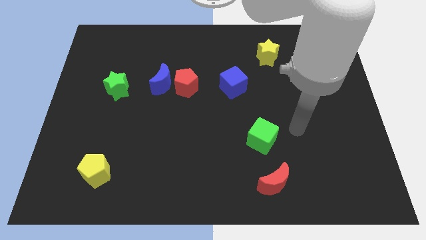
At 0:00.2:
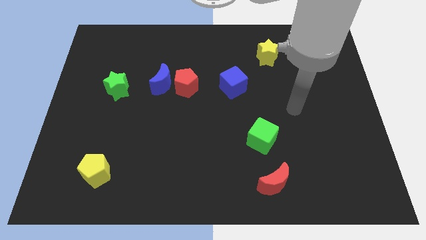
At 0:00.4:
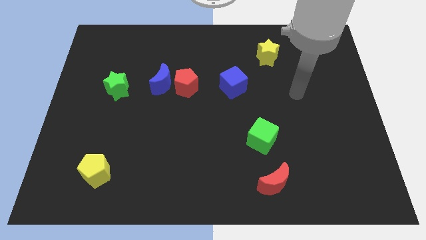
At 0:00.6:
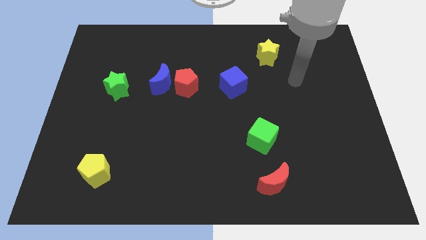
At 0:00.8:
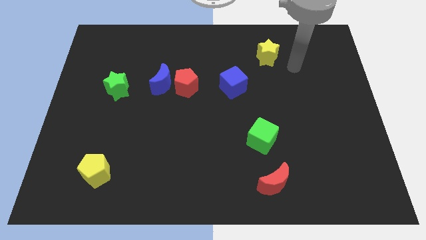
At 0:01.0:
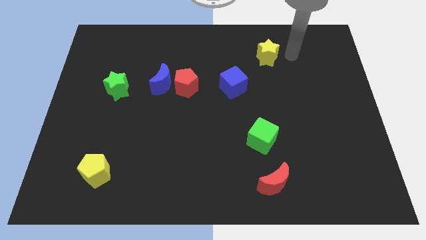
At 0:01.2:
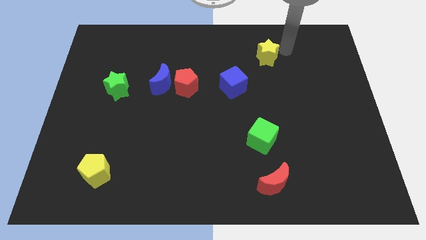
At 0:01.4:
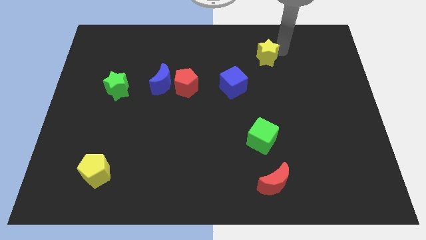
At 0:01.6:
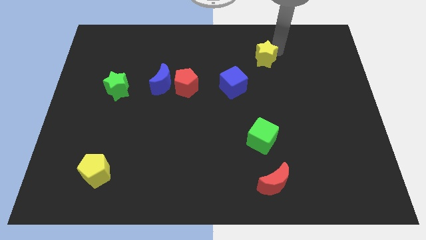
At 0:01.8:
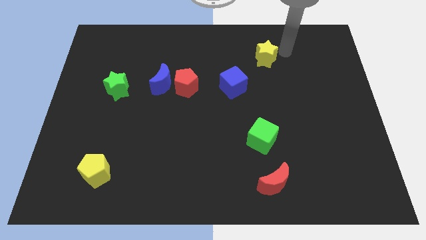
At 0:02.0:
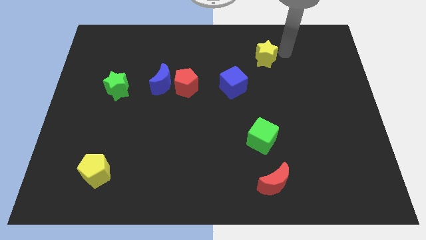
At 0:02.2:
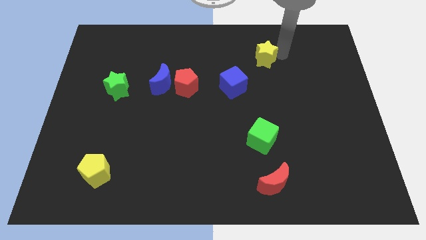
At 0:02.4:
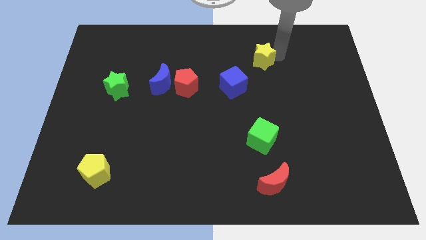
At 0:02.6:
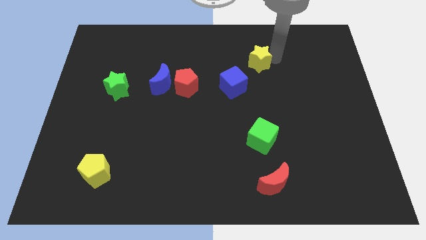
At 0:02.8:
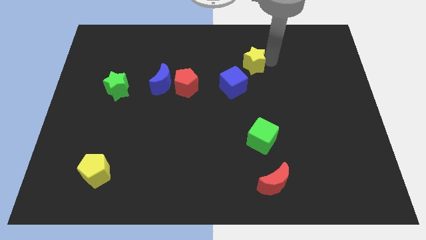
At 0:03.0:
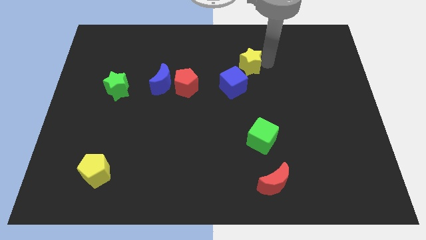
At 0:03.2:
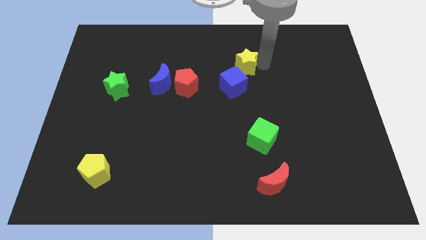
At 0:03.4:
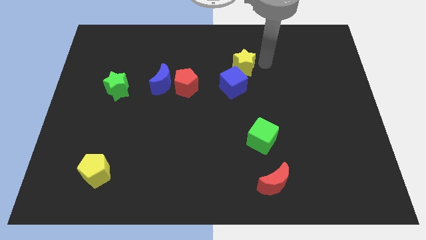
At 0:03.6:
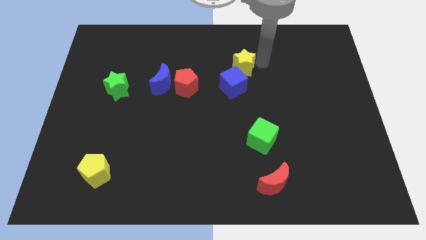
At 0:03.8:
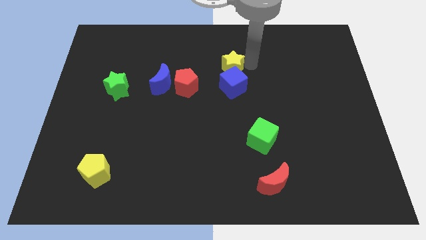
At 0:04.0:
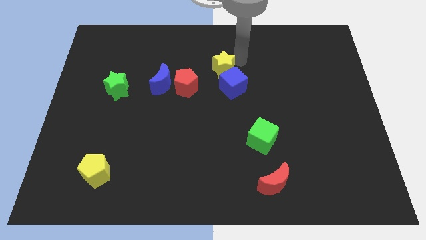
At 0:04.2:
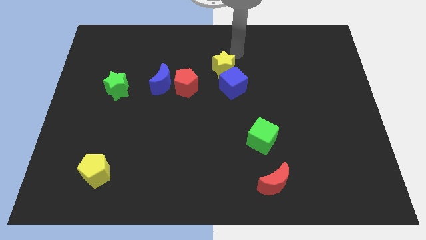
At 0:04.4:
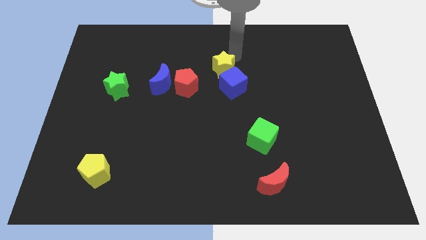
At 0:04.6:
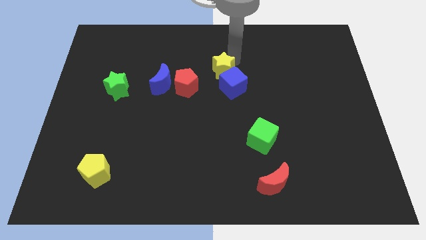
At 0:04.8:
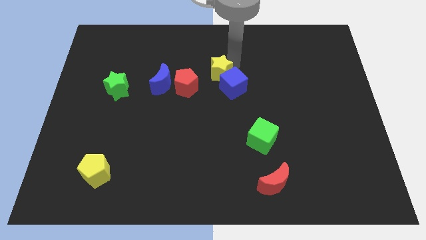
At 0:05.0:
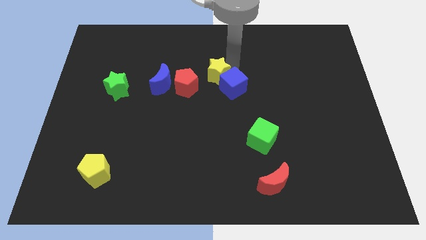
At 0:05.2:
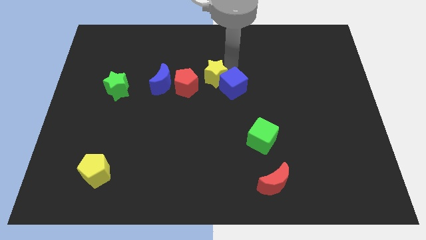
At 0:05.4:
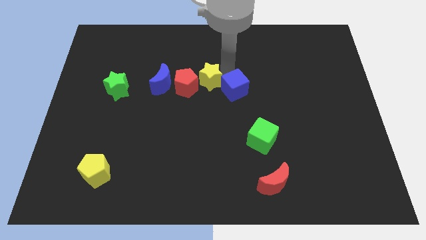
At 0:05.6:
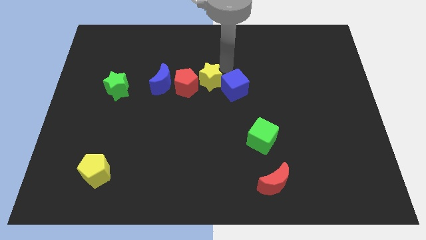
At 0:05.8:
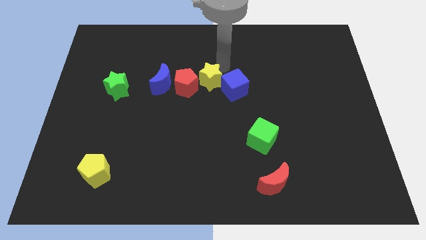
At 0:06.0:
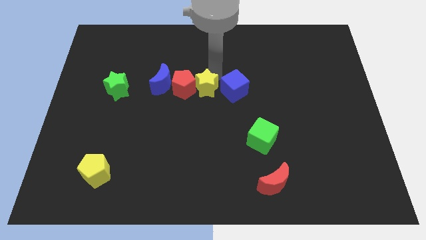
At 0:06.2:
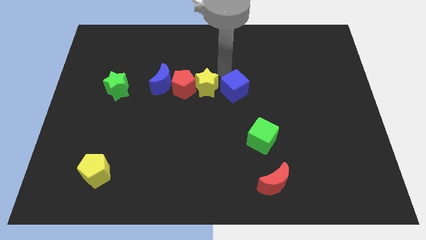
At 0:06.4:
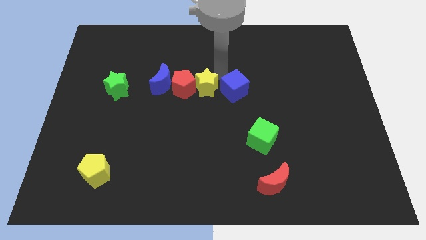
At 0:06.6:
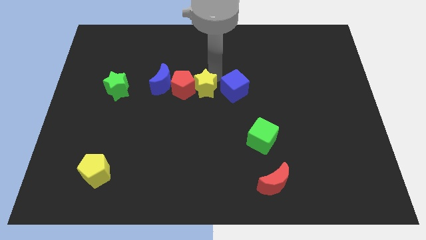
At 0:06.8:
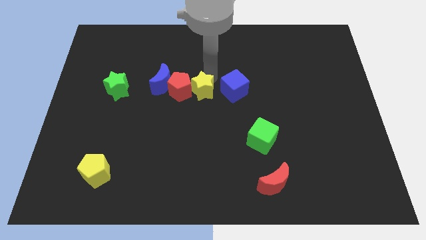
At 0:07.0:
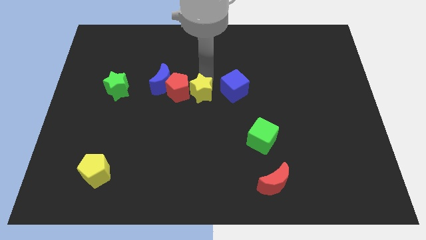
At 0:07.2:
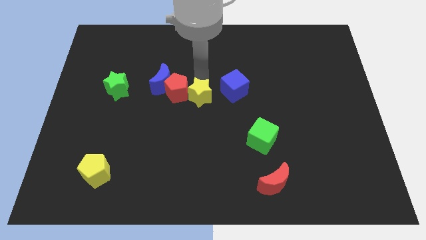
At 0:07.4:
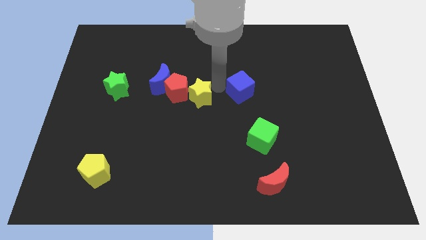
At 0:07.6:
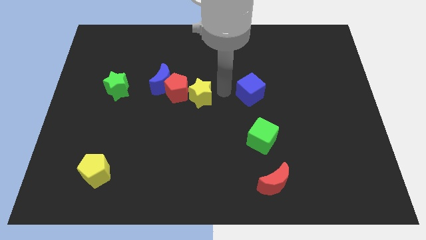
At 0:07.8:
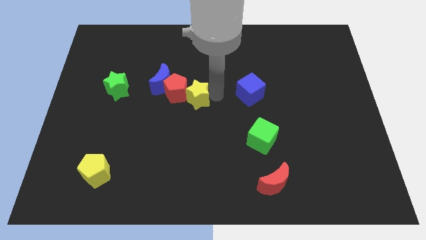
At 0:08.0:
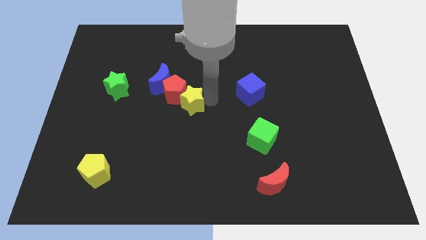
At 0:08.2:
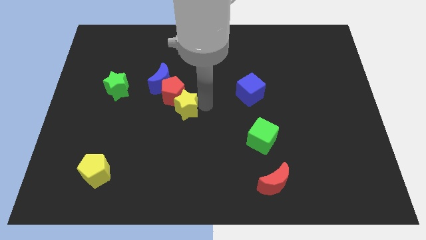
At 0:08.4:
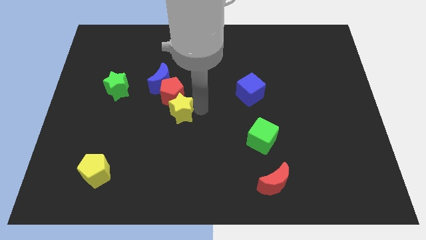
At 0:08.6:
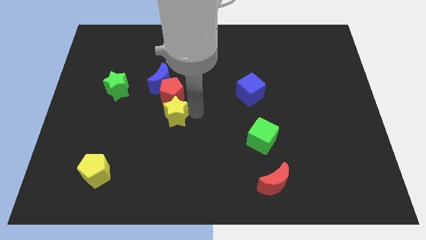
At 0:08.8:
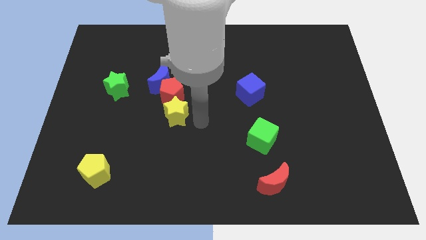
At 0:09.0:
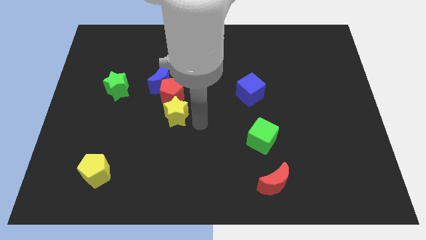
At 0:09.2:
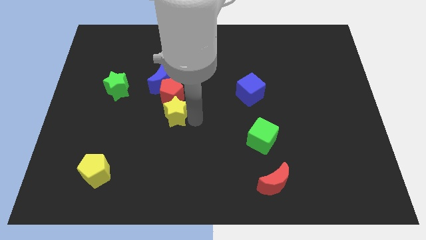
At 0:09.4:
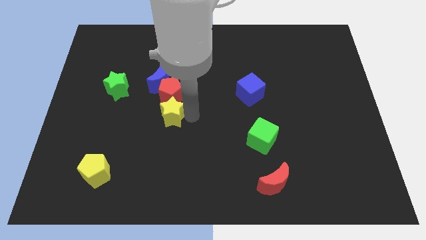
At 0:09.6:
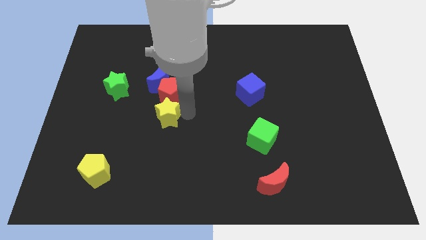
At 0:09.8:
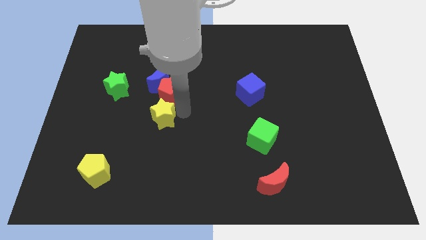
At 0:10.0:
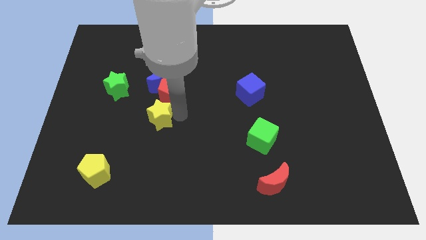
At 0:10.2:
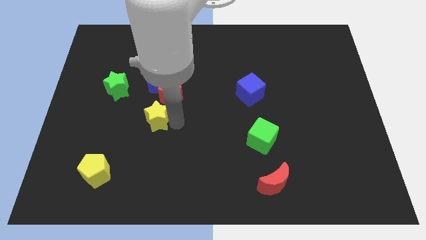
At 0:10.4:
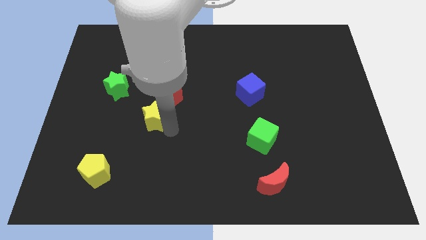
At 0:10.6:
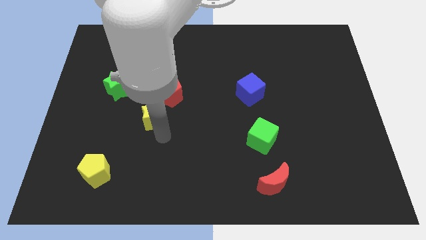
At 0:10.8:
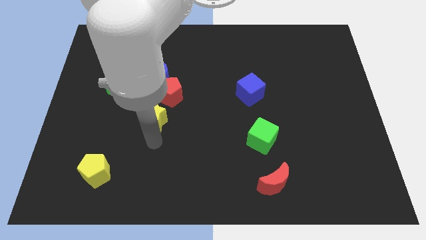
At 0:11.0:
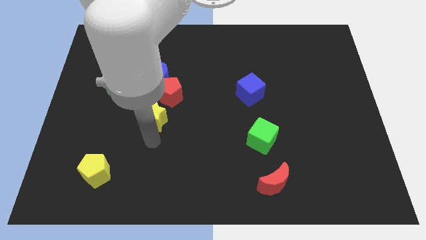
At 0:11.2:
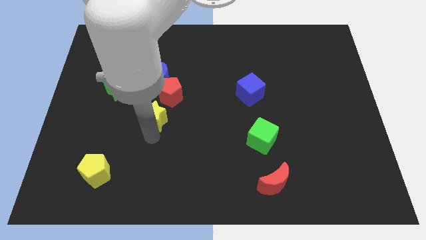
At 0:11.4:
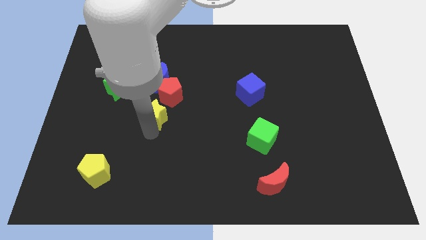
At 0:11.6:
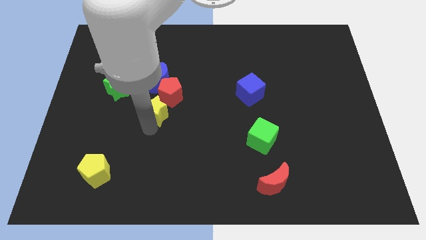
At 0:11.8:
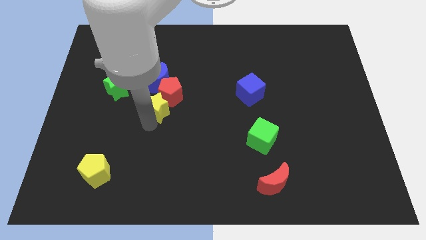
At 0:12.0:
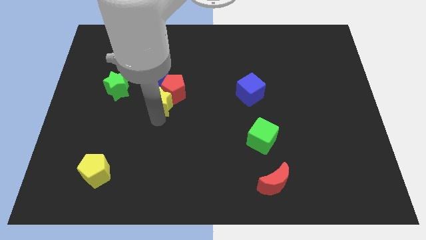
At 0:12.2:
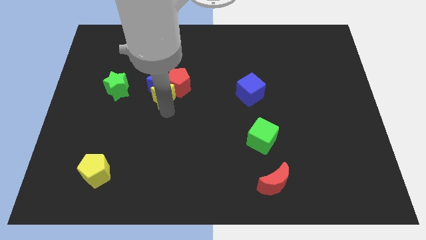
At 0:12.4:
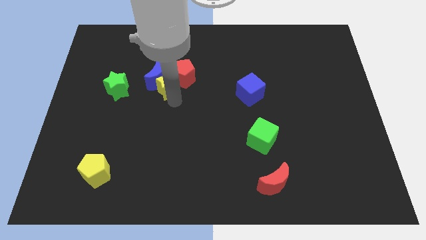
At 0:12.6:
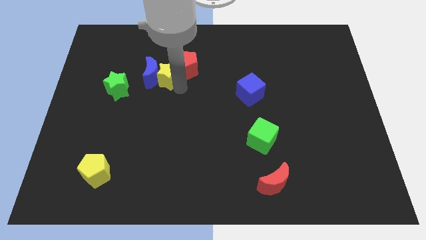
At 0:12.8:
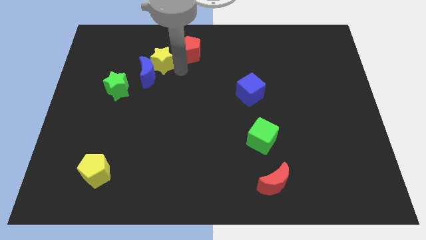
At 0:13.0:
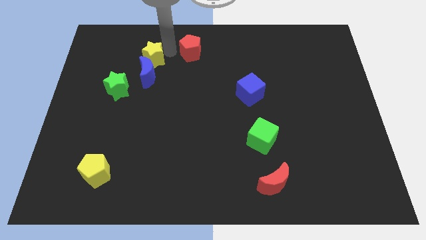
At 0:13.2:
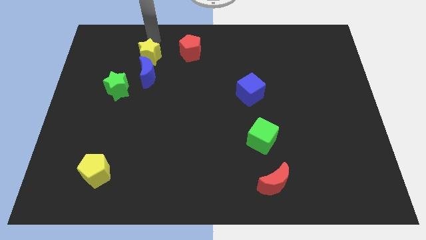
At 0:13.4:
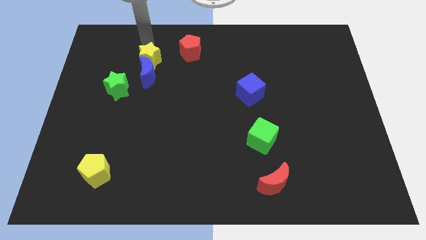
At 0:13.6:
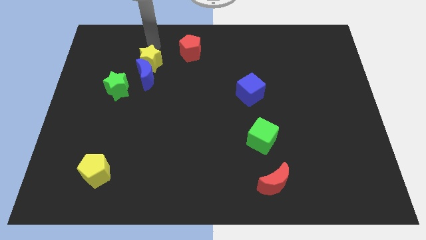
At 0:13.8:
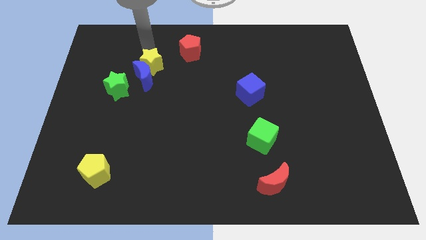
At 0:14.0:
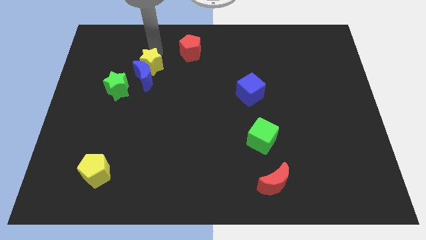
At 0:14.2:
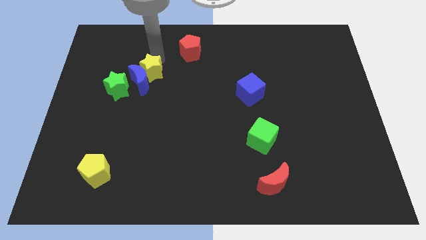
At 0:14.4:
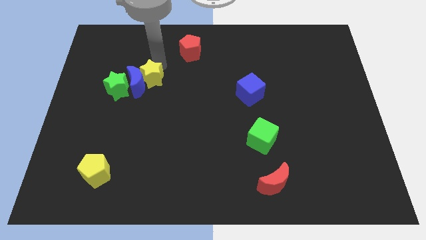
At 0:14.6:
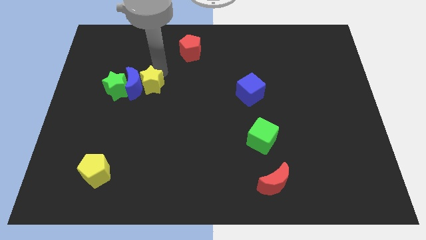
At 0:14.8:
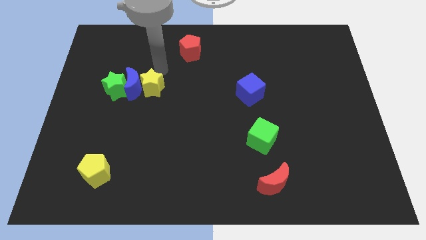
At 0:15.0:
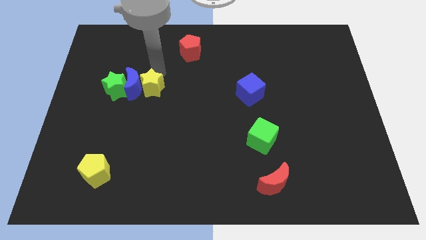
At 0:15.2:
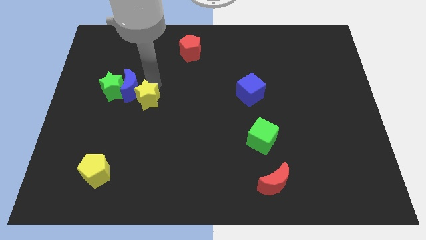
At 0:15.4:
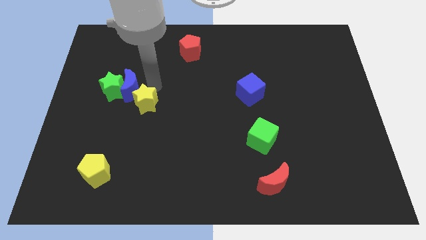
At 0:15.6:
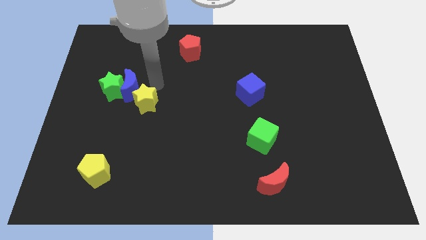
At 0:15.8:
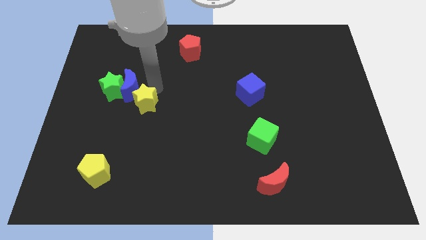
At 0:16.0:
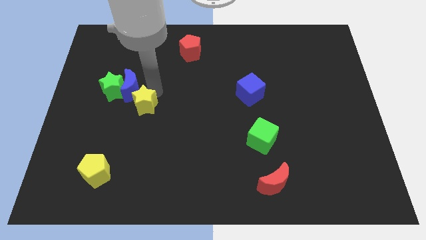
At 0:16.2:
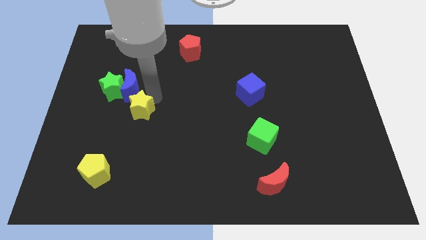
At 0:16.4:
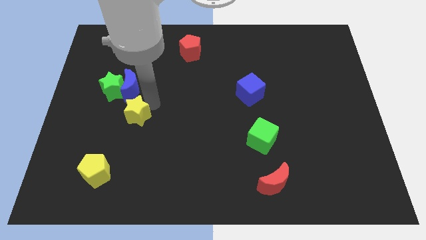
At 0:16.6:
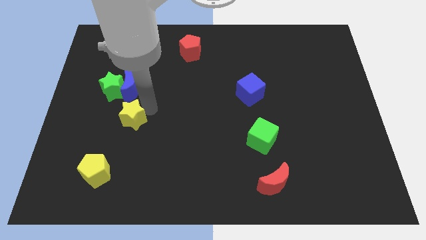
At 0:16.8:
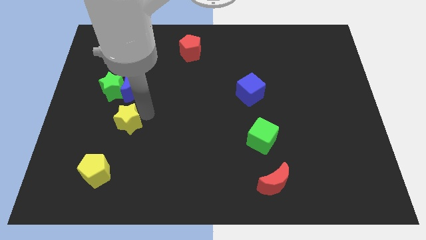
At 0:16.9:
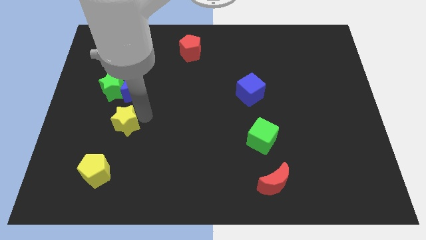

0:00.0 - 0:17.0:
push the yellow star below the green star
